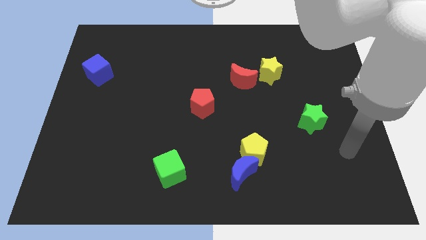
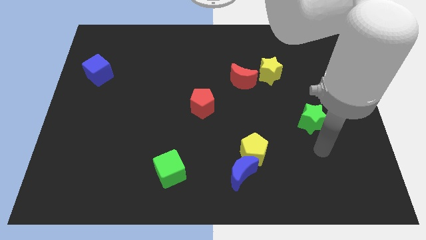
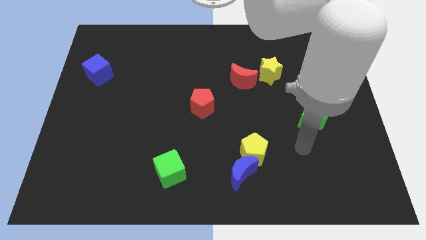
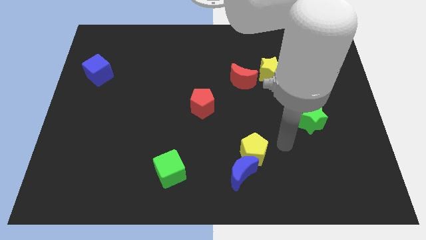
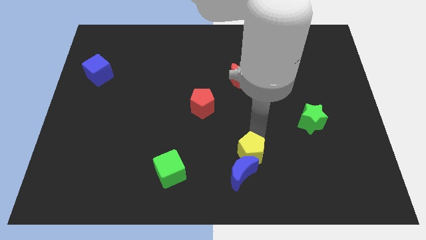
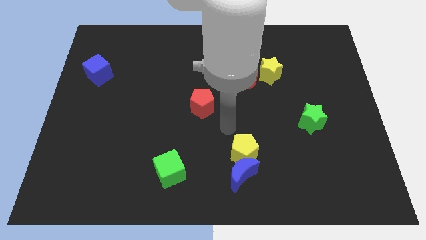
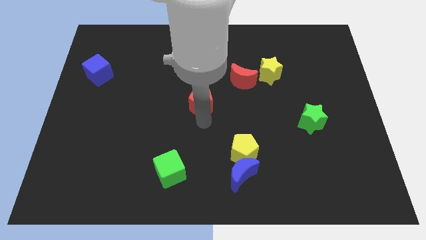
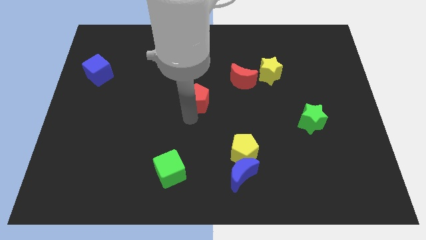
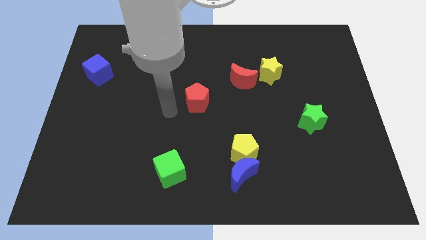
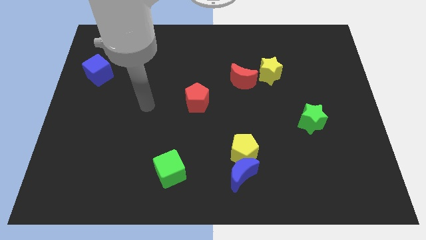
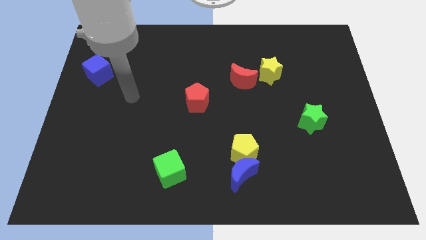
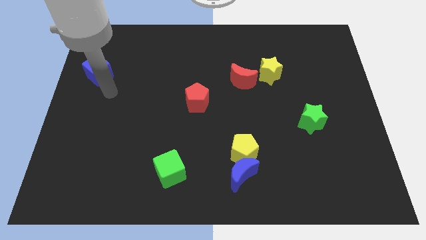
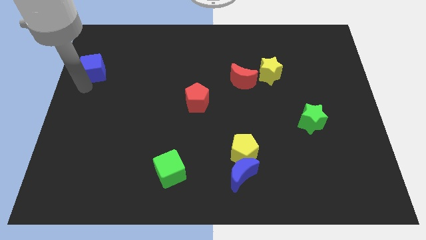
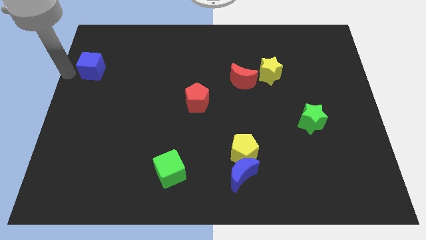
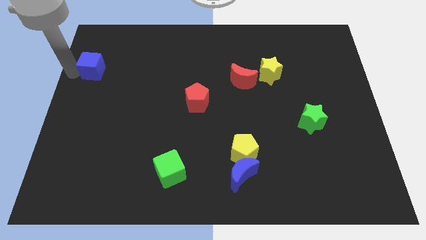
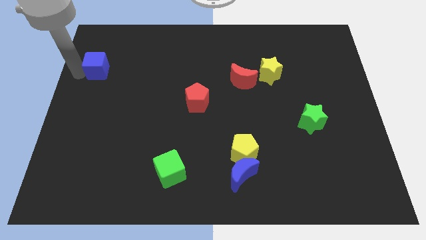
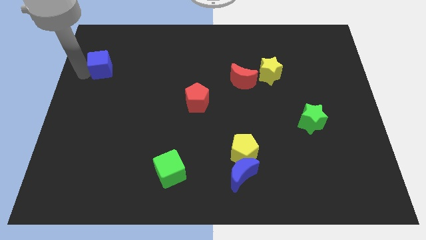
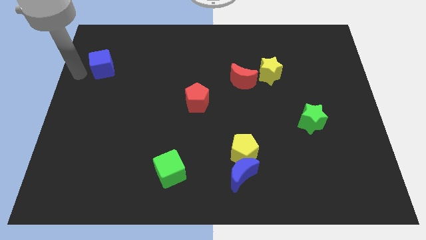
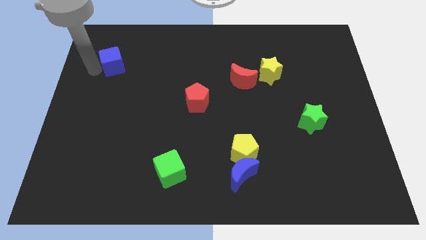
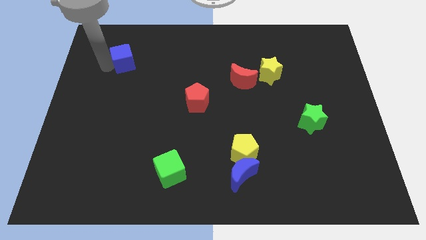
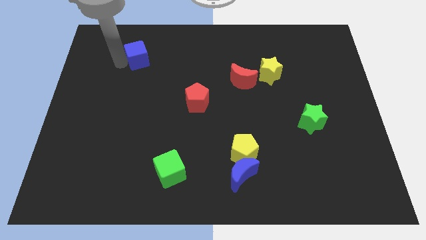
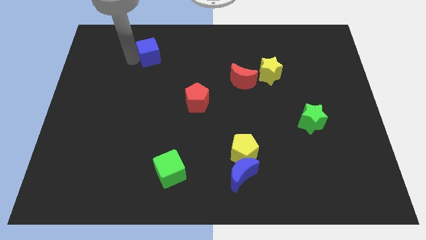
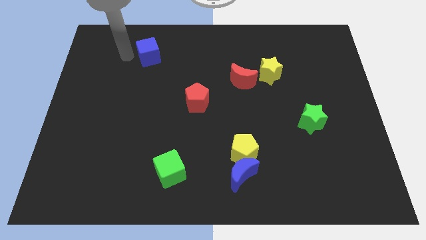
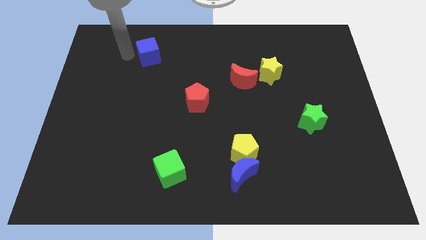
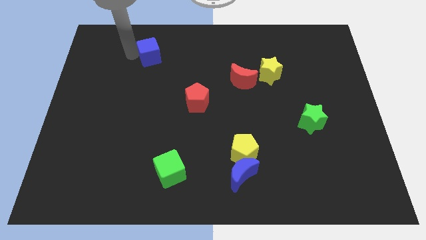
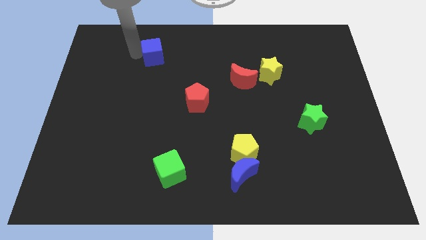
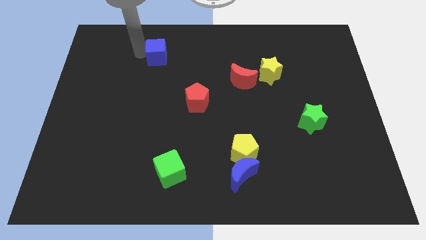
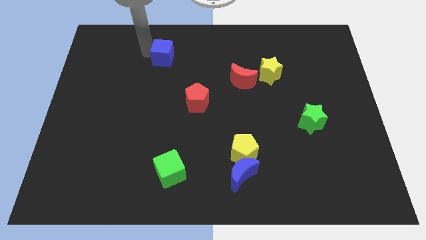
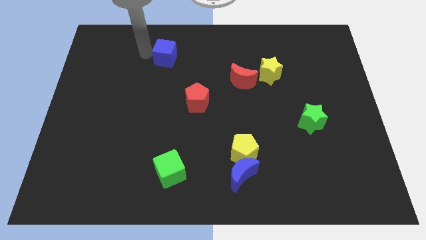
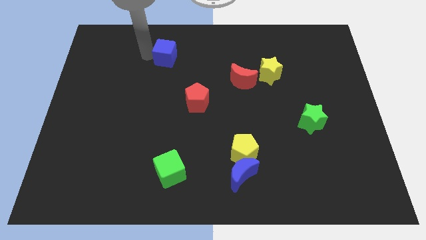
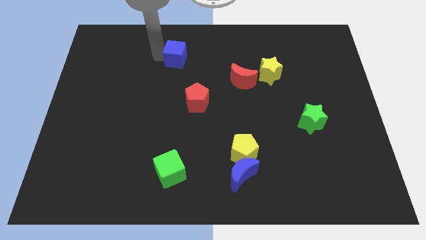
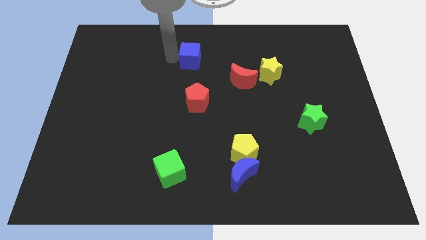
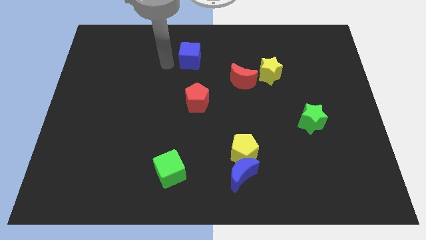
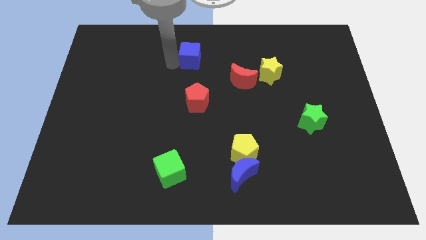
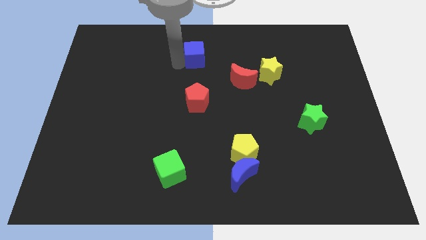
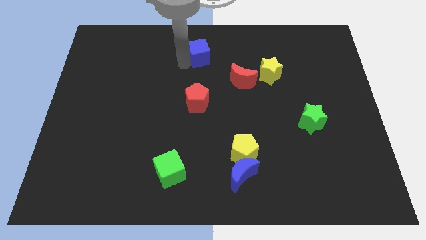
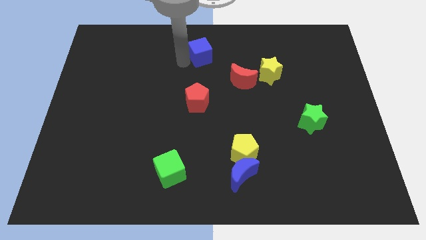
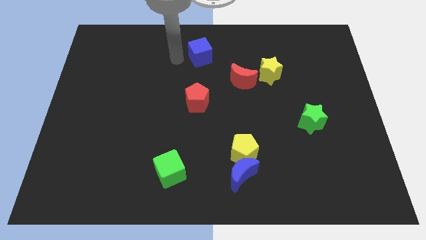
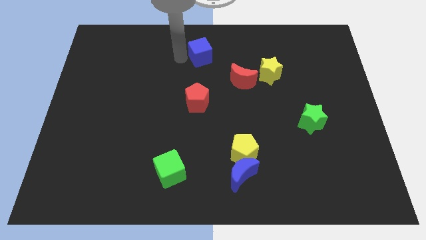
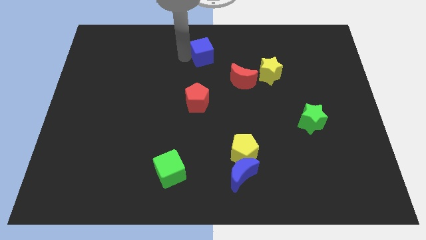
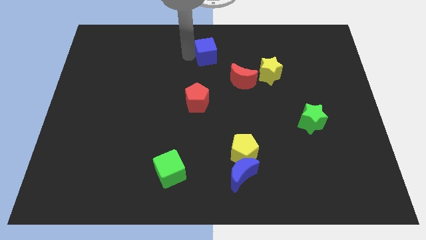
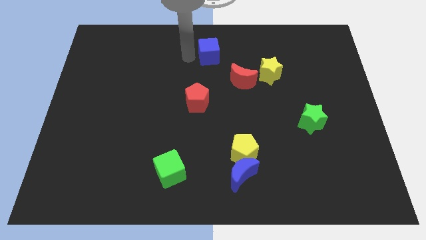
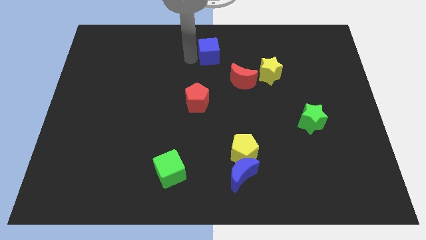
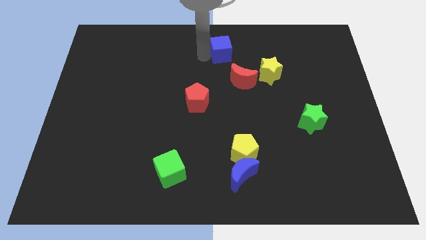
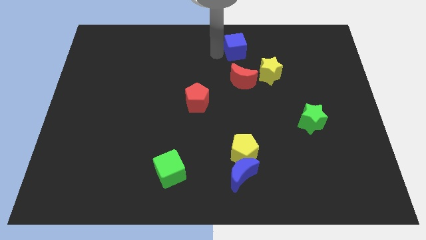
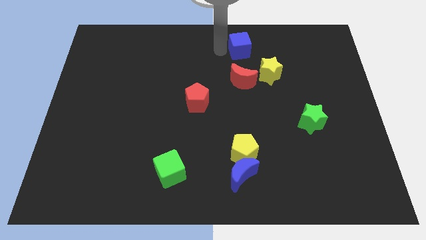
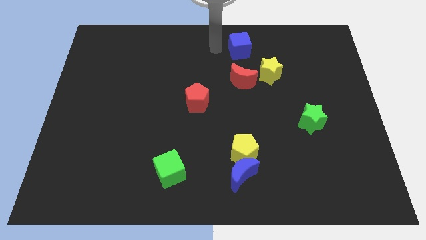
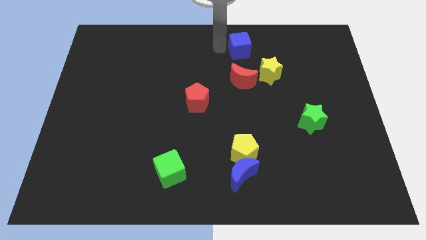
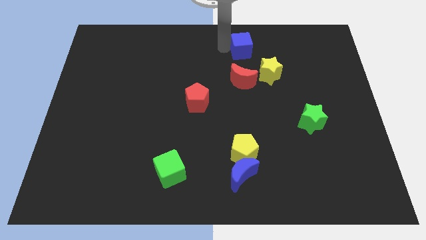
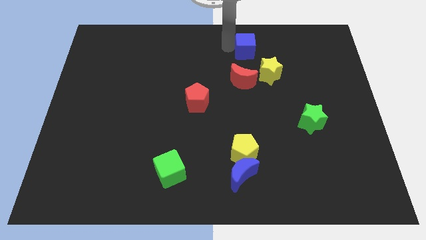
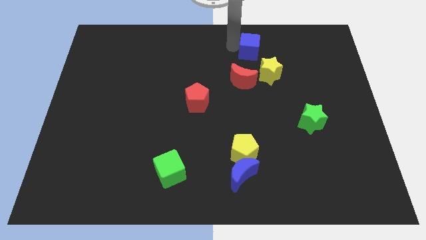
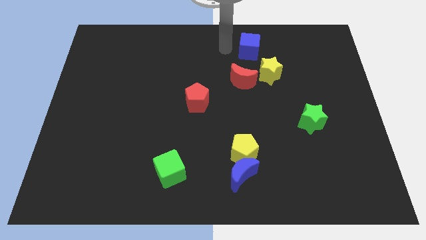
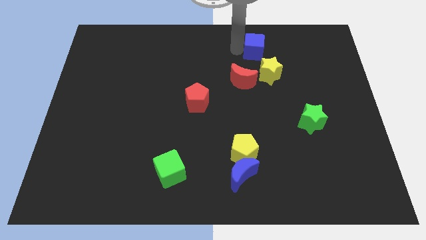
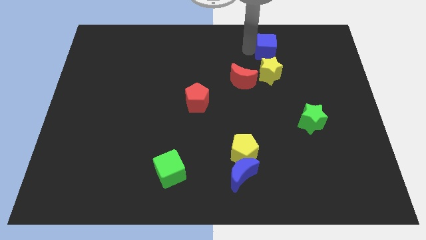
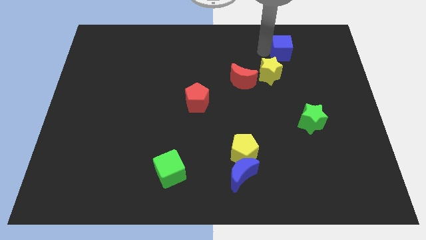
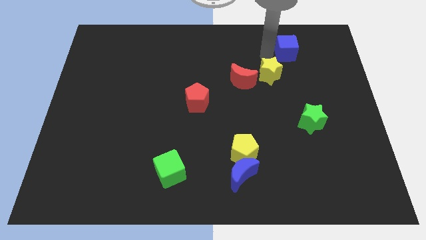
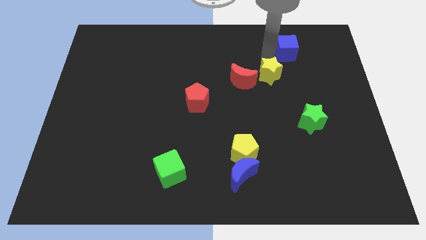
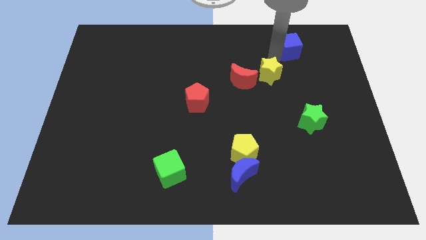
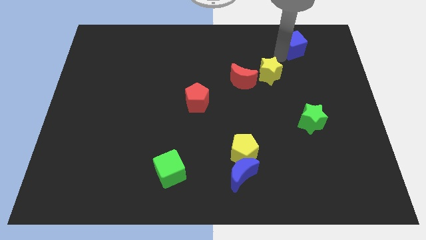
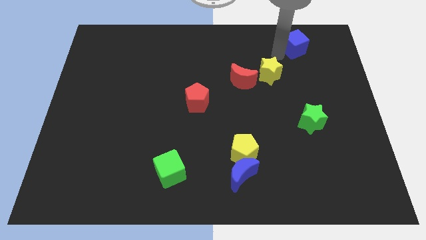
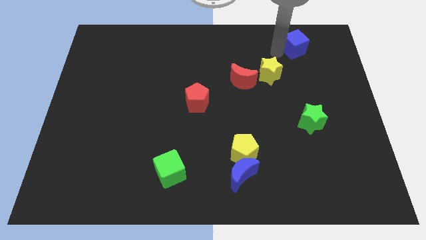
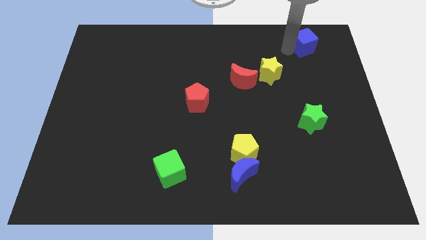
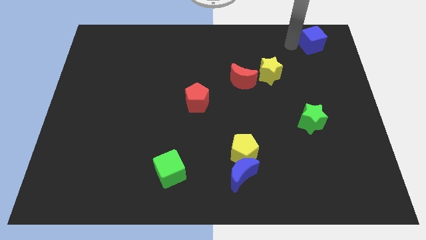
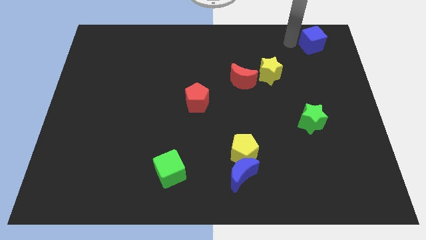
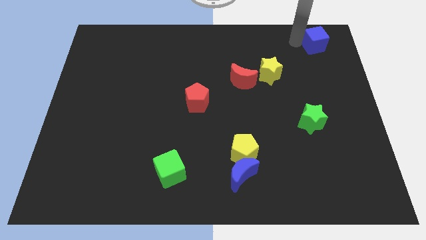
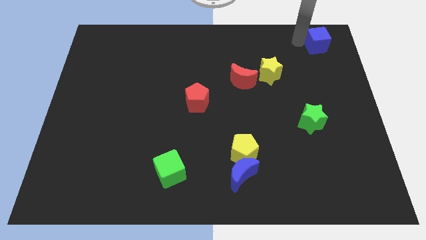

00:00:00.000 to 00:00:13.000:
slide the blue cube to the top right of the board
